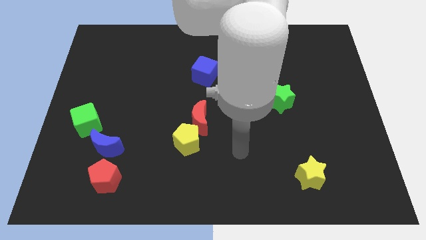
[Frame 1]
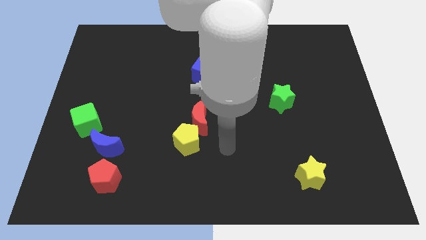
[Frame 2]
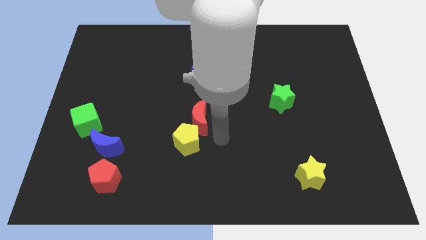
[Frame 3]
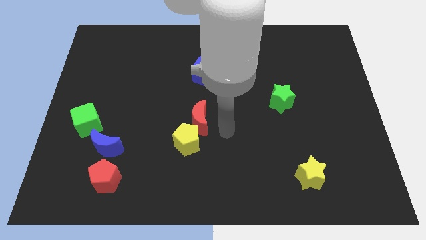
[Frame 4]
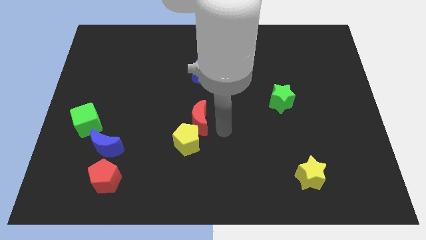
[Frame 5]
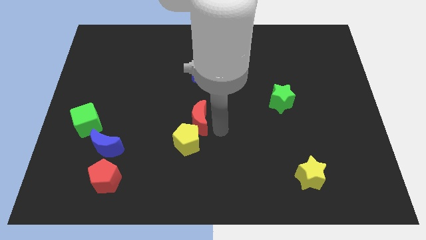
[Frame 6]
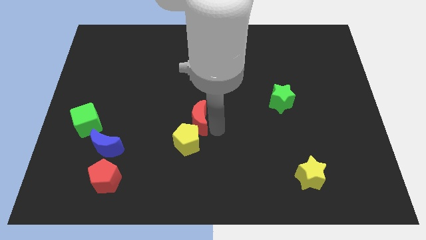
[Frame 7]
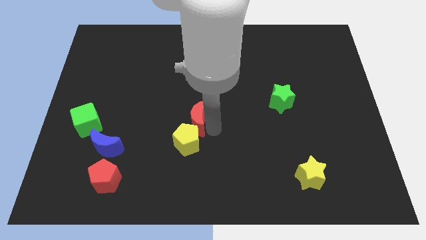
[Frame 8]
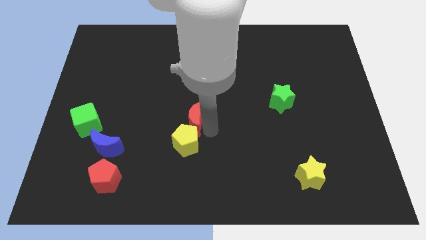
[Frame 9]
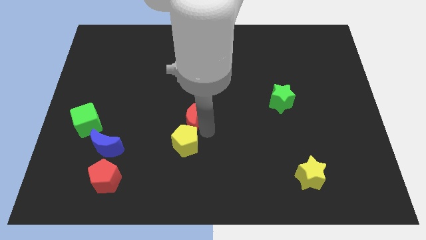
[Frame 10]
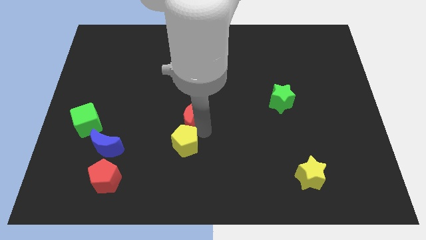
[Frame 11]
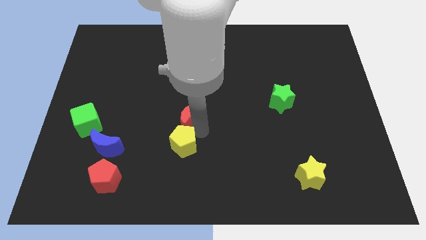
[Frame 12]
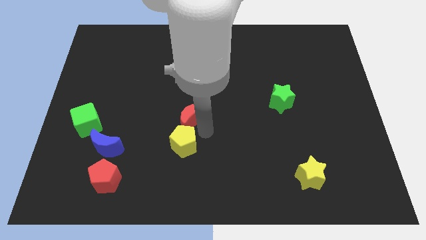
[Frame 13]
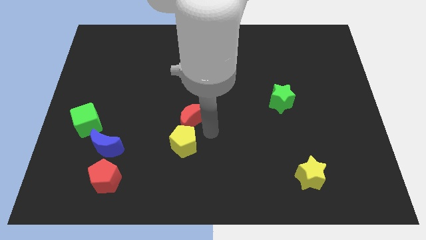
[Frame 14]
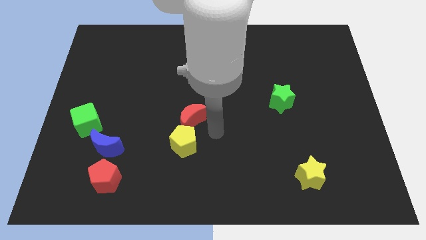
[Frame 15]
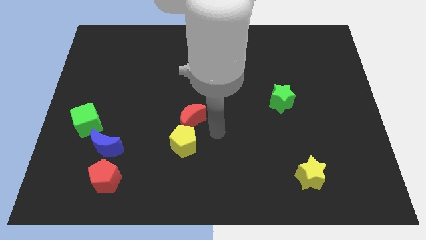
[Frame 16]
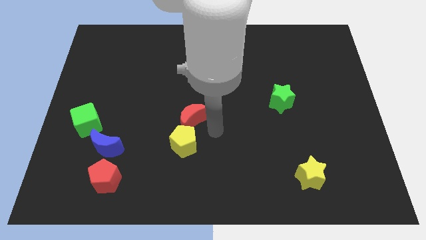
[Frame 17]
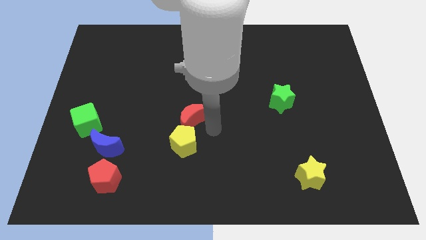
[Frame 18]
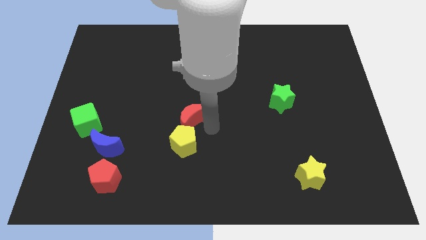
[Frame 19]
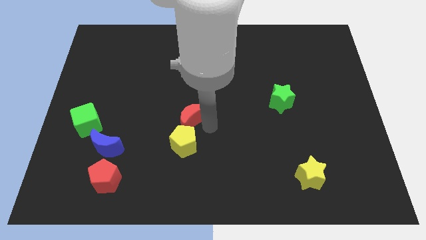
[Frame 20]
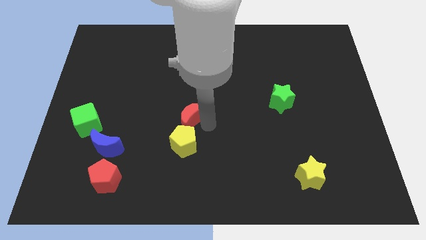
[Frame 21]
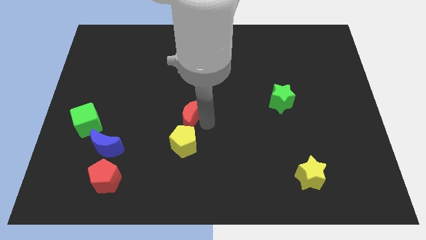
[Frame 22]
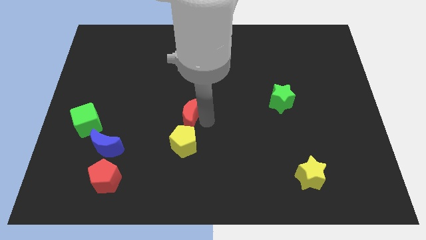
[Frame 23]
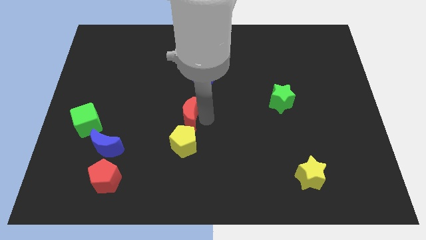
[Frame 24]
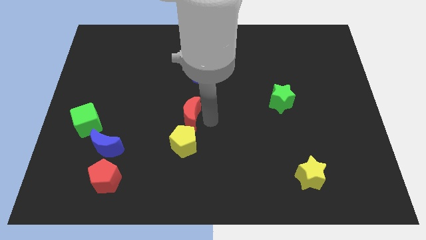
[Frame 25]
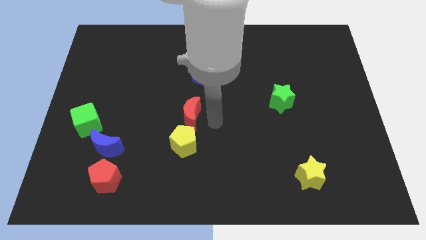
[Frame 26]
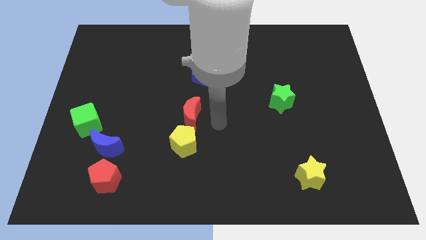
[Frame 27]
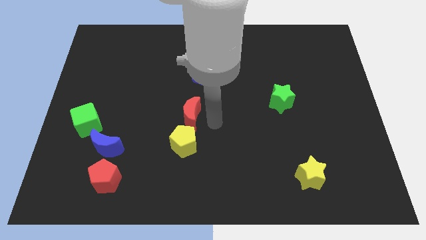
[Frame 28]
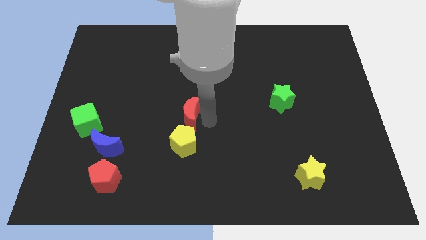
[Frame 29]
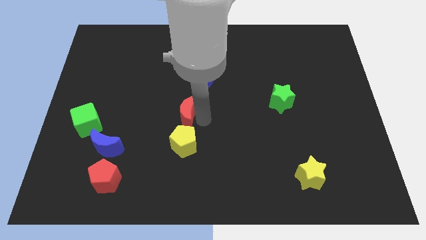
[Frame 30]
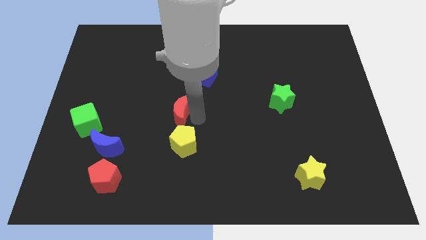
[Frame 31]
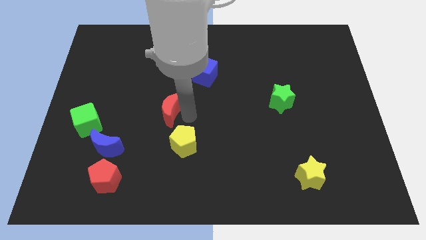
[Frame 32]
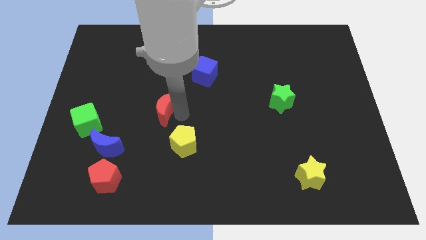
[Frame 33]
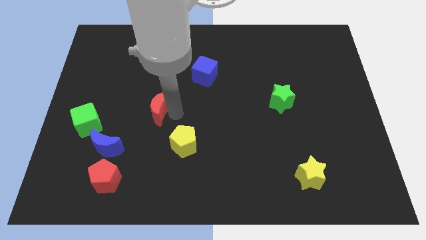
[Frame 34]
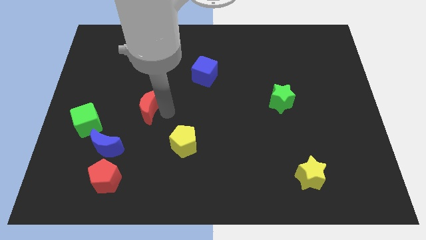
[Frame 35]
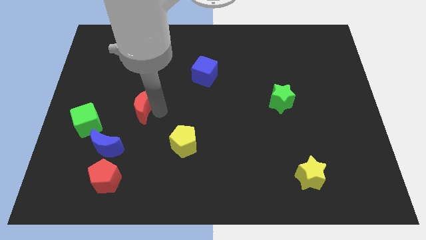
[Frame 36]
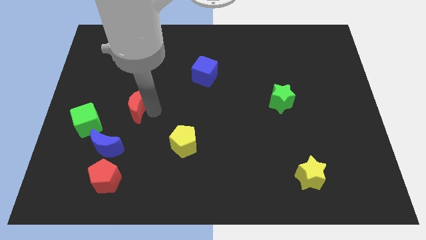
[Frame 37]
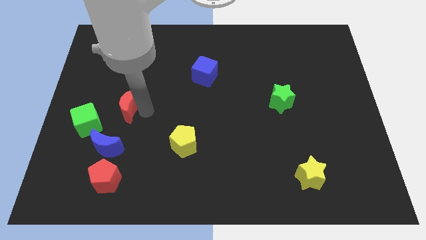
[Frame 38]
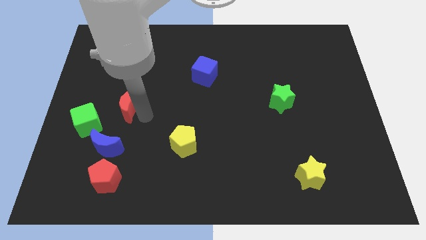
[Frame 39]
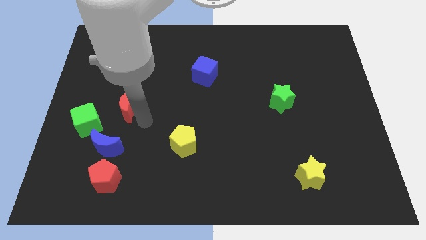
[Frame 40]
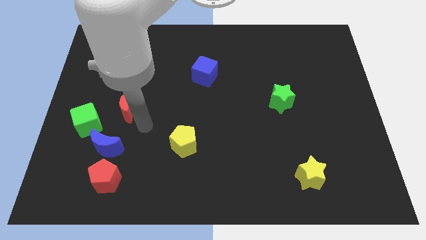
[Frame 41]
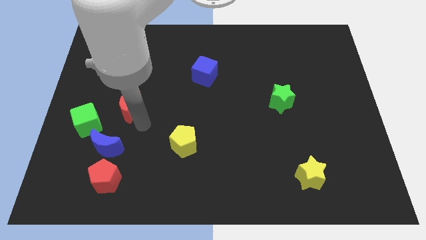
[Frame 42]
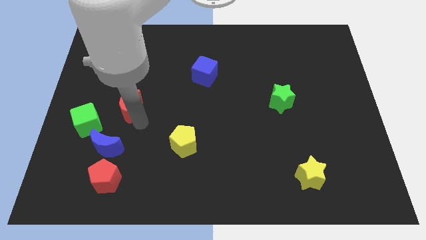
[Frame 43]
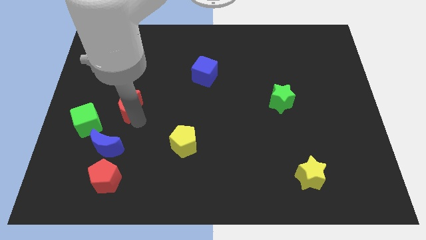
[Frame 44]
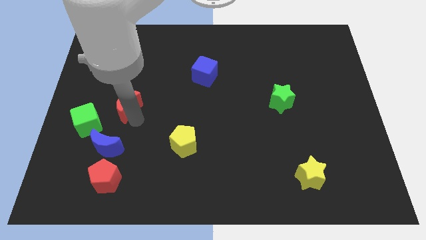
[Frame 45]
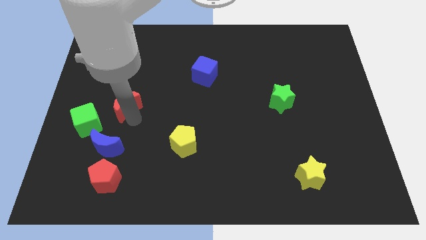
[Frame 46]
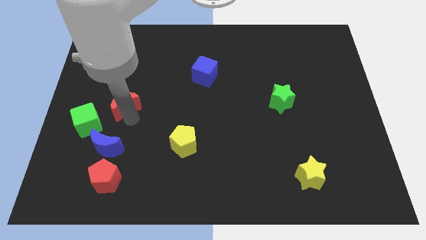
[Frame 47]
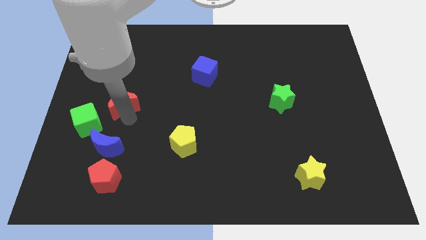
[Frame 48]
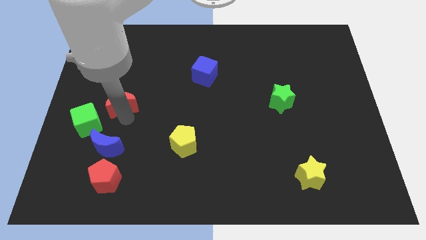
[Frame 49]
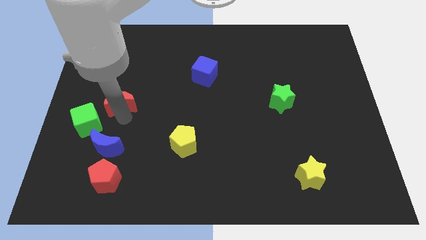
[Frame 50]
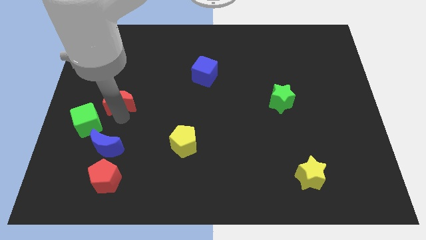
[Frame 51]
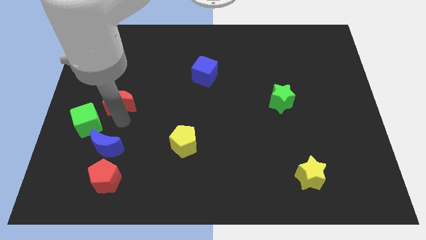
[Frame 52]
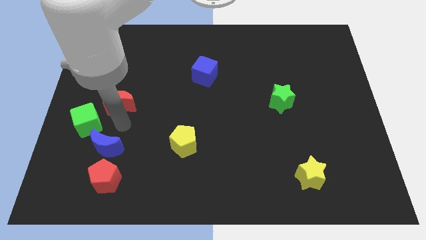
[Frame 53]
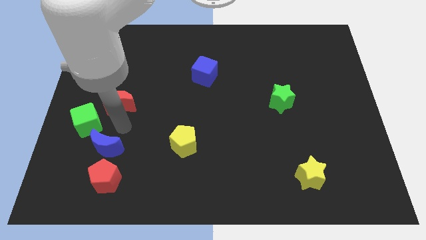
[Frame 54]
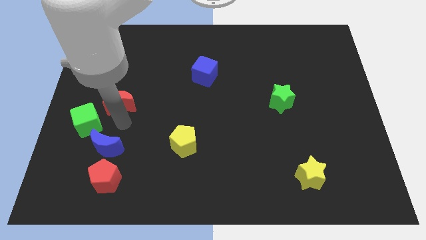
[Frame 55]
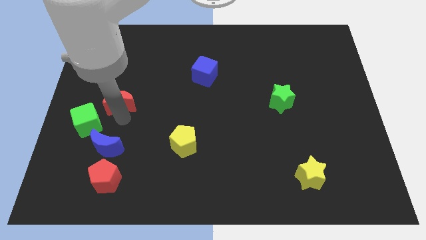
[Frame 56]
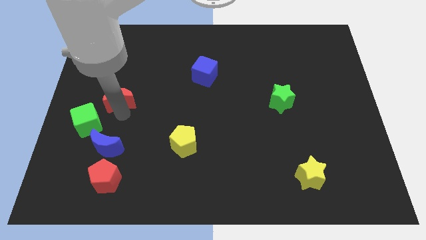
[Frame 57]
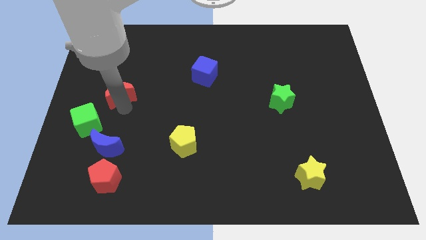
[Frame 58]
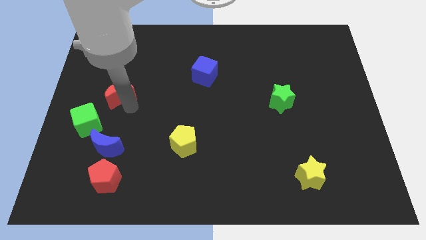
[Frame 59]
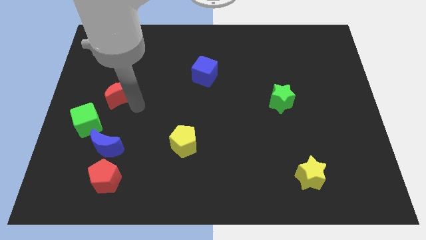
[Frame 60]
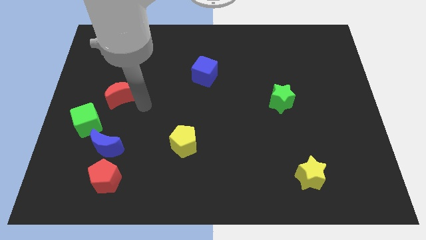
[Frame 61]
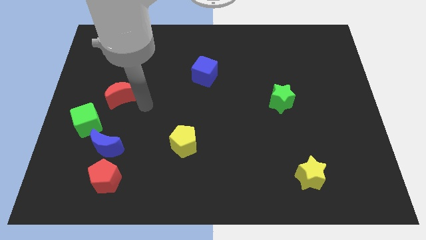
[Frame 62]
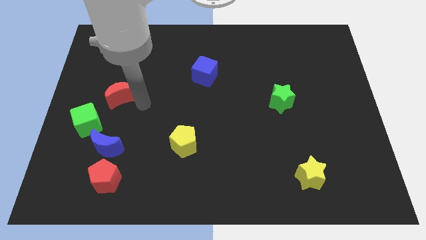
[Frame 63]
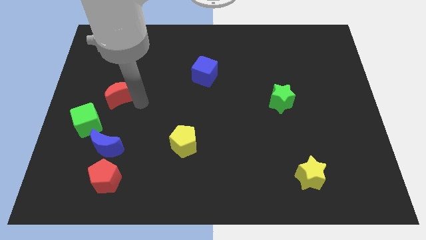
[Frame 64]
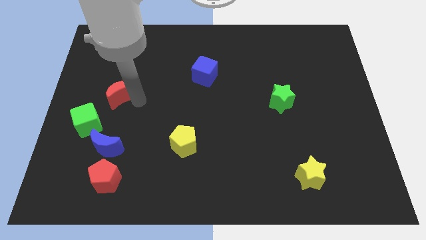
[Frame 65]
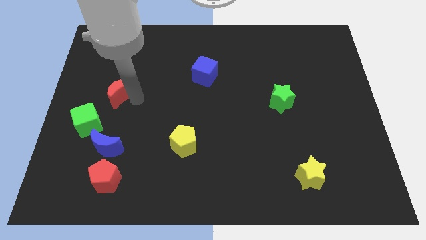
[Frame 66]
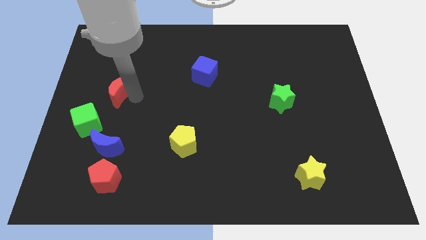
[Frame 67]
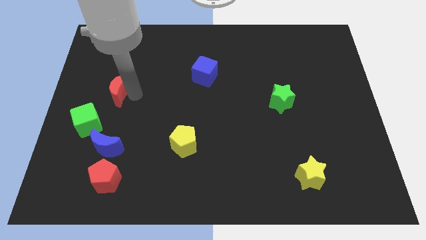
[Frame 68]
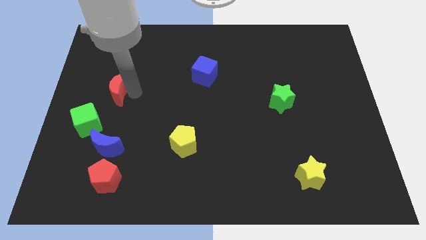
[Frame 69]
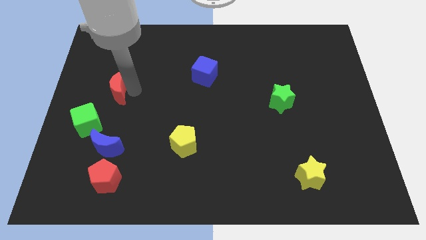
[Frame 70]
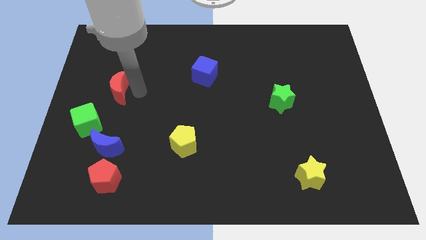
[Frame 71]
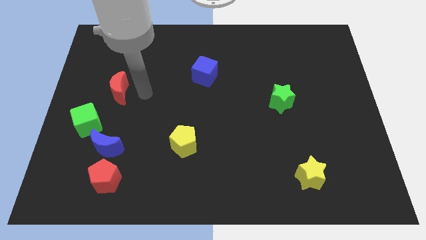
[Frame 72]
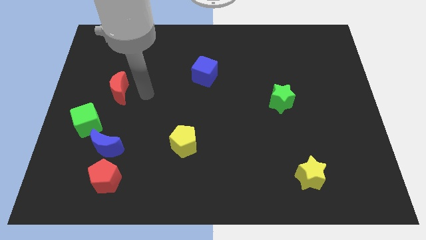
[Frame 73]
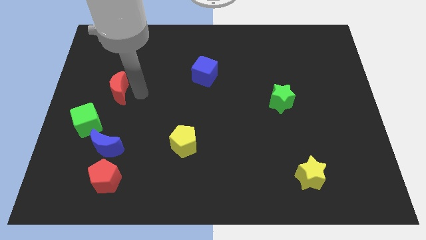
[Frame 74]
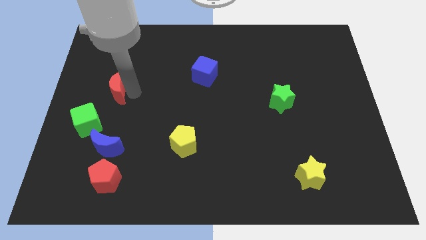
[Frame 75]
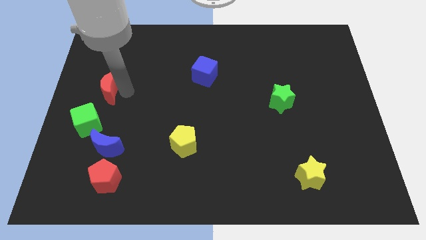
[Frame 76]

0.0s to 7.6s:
put the red moon to the top side of the green cube

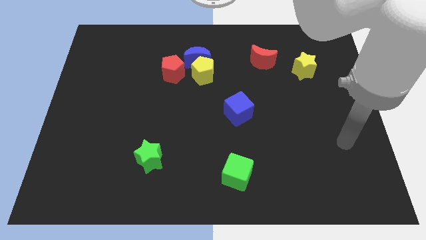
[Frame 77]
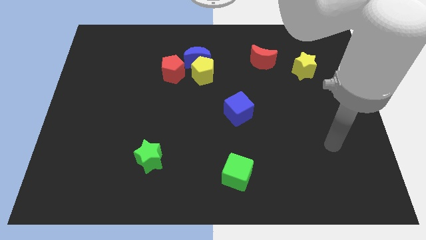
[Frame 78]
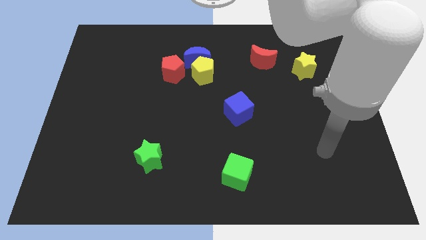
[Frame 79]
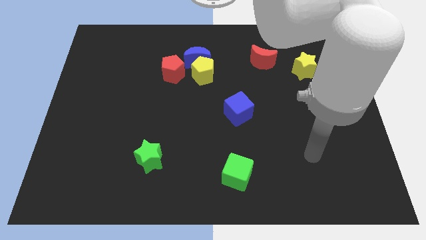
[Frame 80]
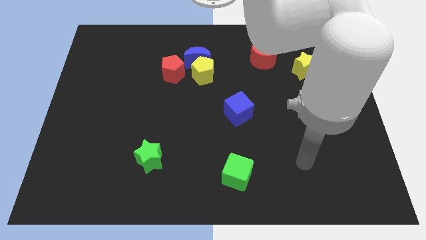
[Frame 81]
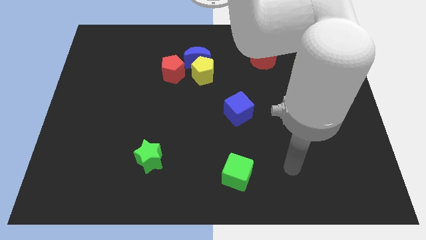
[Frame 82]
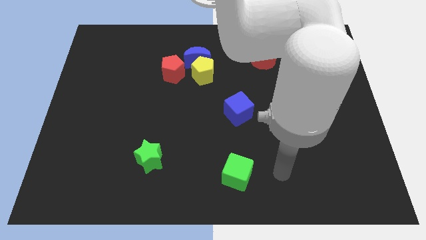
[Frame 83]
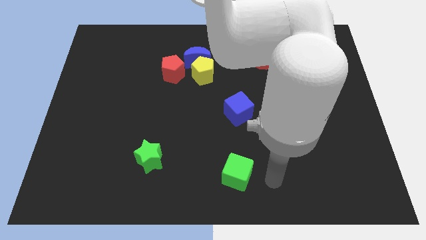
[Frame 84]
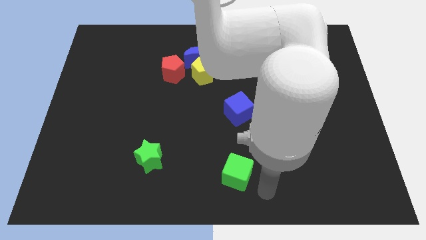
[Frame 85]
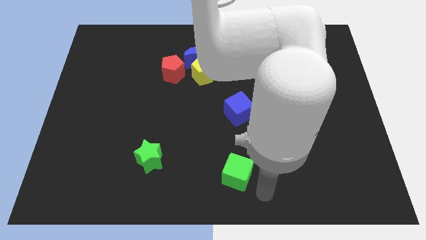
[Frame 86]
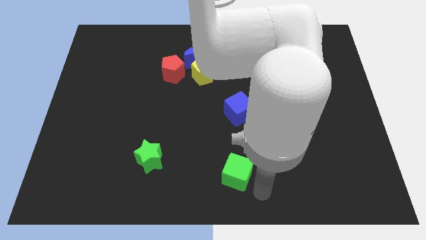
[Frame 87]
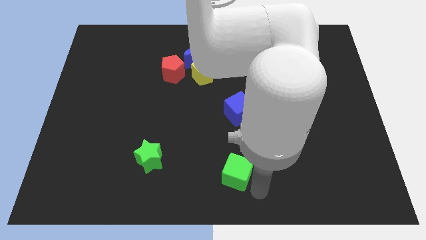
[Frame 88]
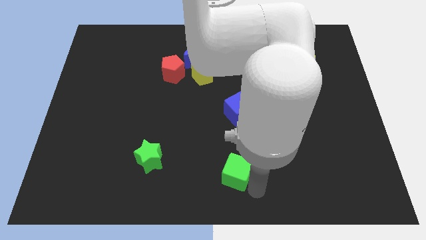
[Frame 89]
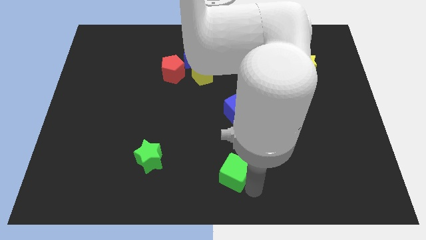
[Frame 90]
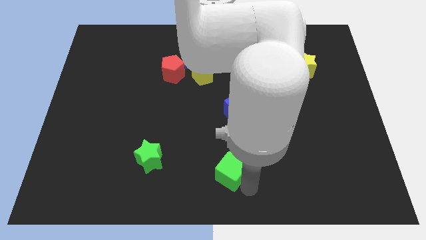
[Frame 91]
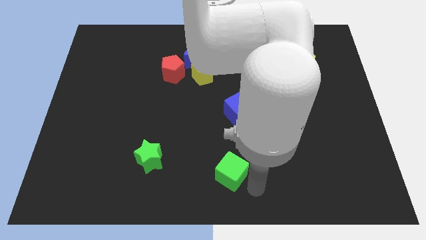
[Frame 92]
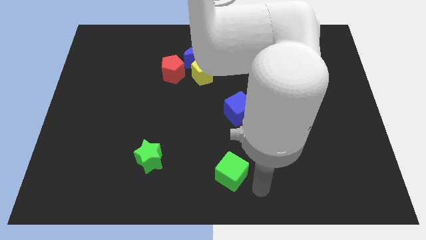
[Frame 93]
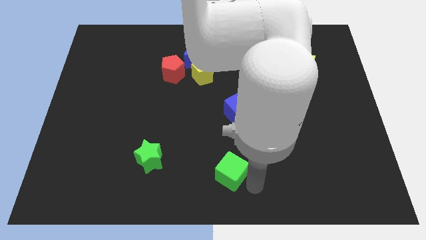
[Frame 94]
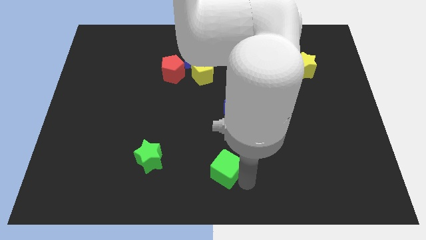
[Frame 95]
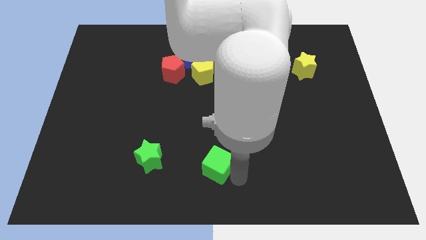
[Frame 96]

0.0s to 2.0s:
slide the green cube right of the green star
